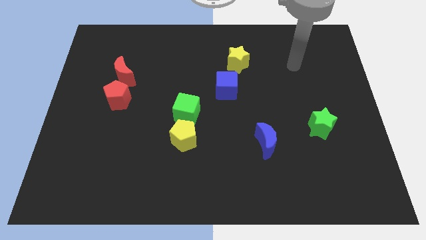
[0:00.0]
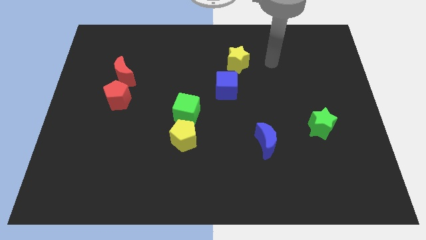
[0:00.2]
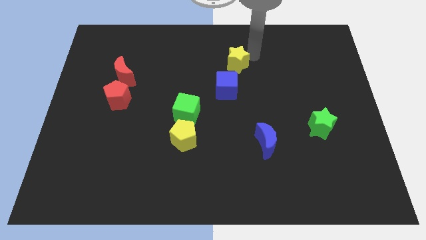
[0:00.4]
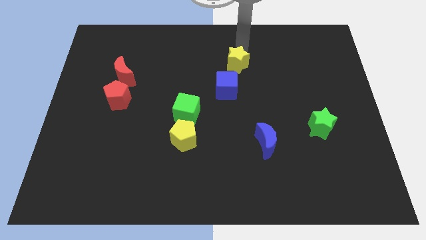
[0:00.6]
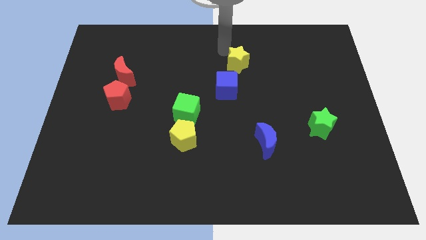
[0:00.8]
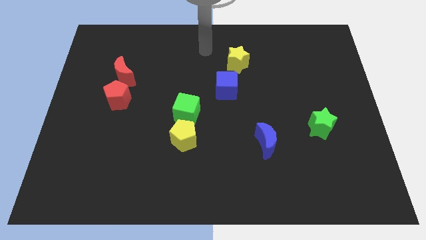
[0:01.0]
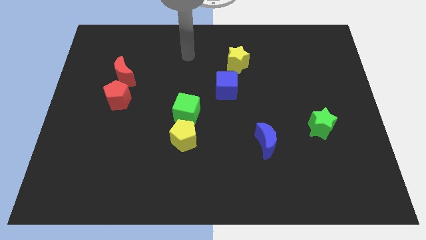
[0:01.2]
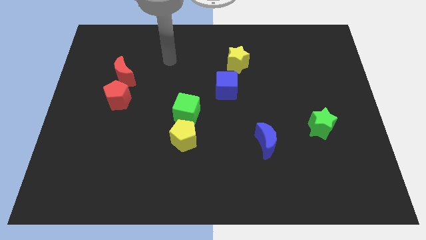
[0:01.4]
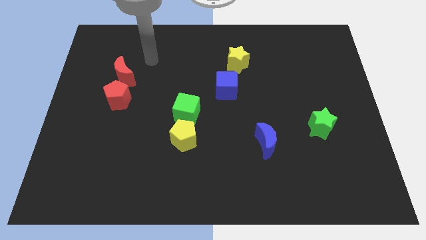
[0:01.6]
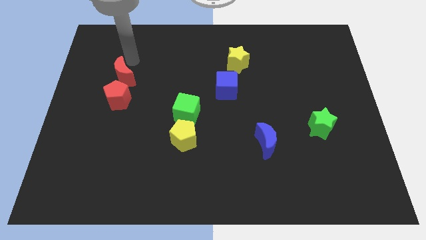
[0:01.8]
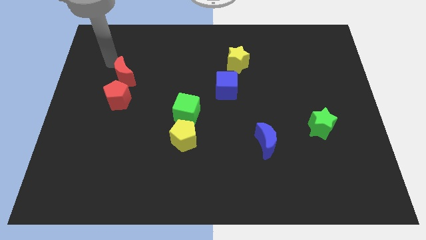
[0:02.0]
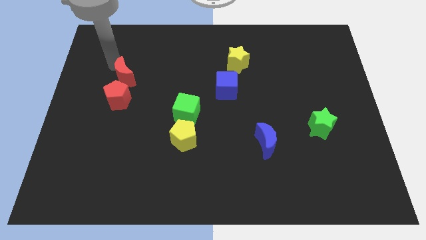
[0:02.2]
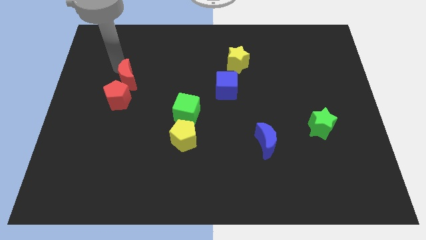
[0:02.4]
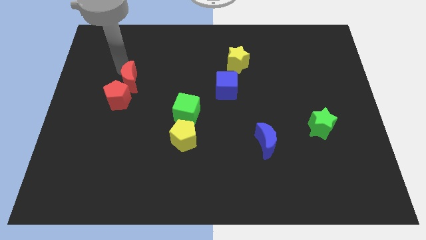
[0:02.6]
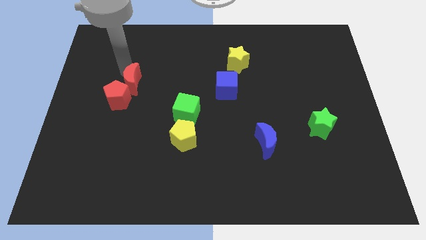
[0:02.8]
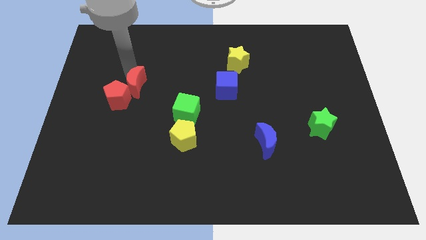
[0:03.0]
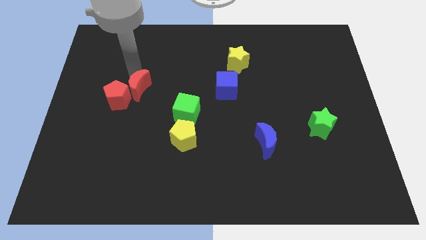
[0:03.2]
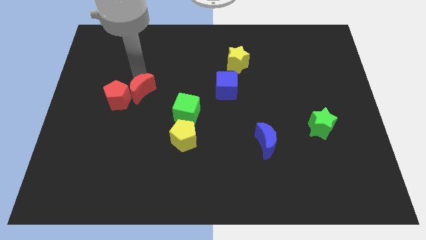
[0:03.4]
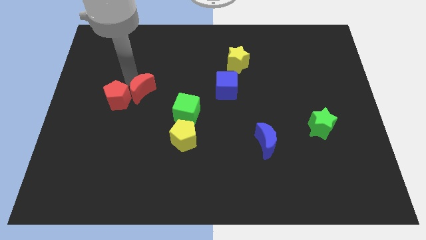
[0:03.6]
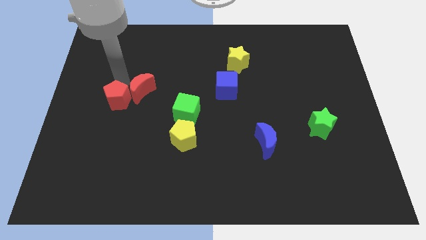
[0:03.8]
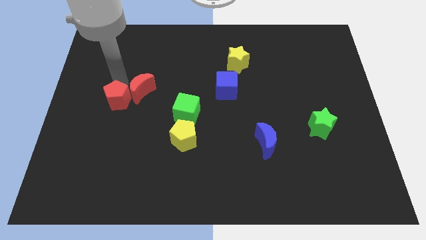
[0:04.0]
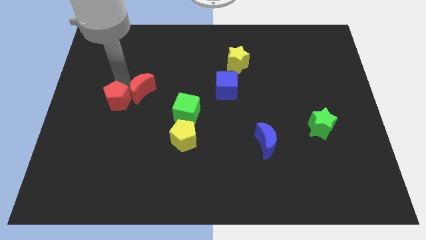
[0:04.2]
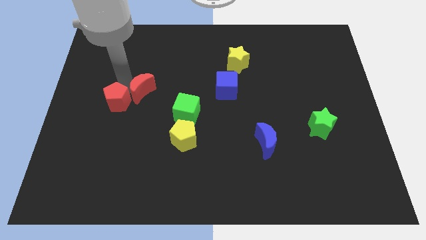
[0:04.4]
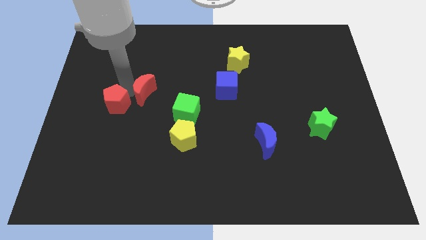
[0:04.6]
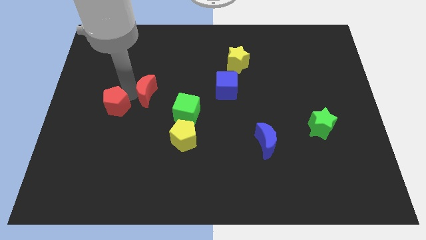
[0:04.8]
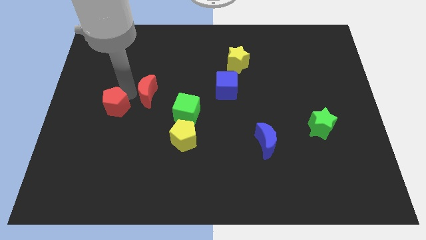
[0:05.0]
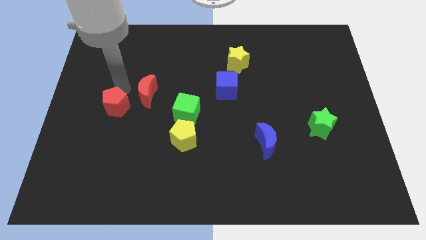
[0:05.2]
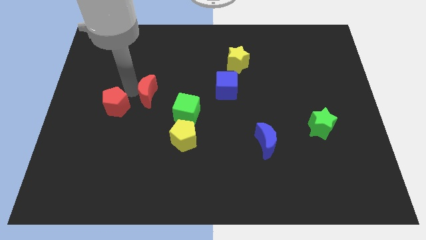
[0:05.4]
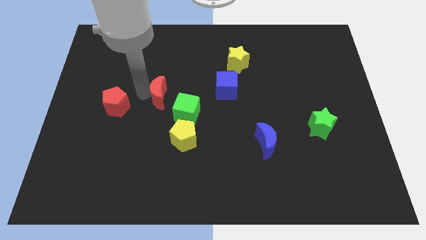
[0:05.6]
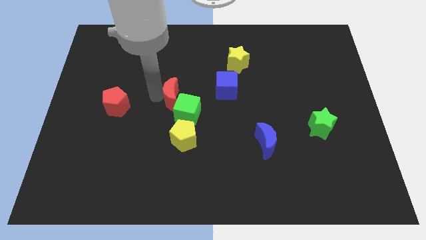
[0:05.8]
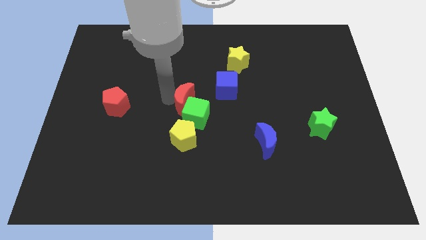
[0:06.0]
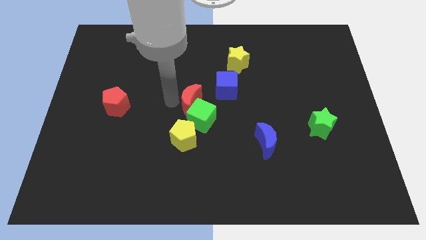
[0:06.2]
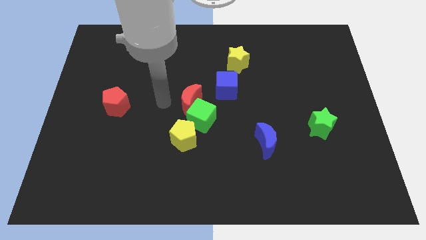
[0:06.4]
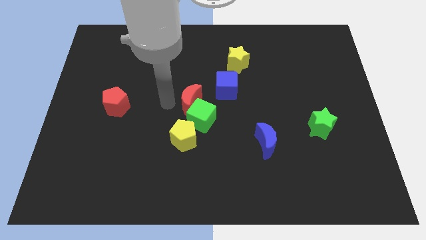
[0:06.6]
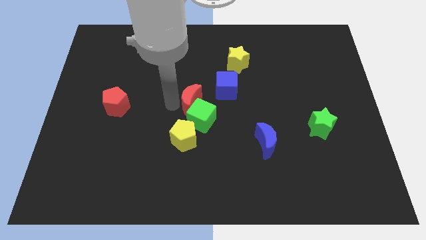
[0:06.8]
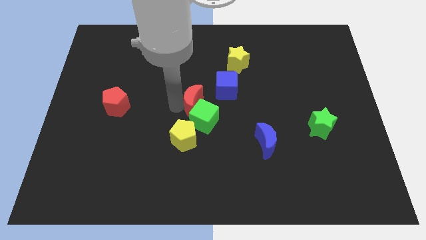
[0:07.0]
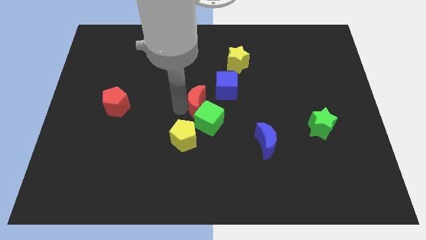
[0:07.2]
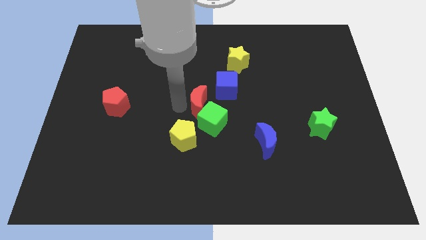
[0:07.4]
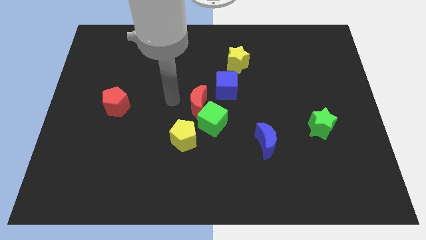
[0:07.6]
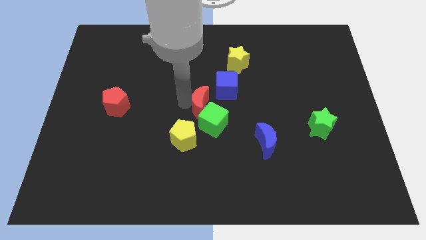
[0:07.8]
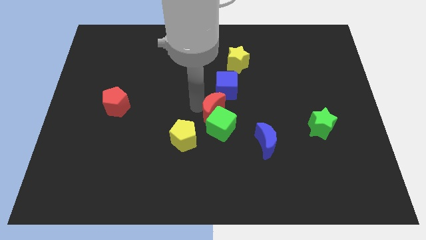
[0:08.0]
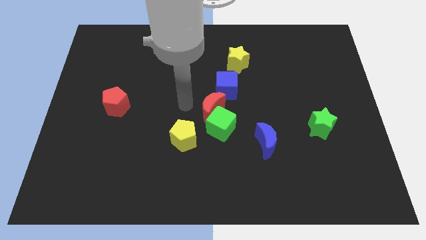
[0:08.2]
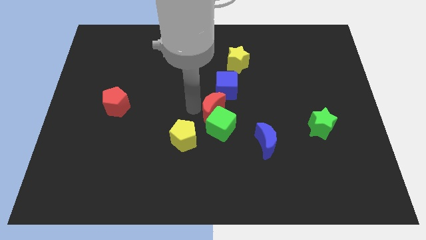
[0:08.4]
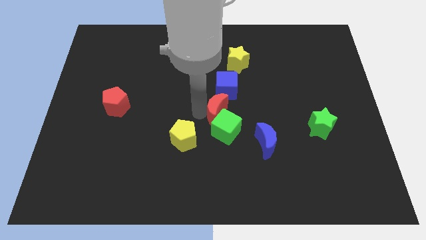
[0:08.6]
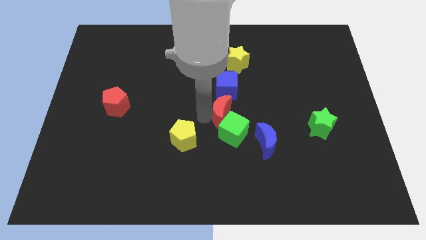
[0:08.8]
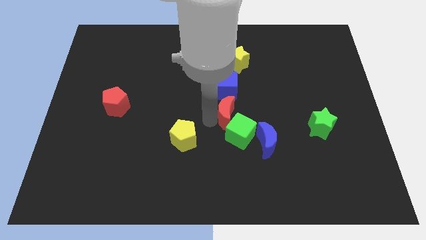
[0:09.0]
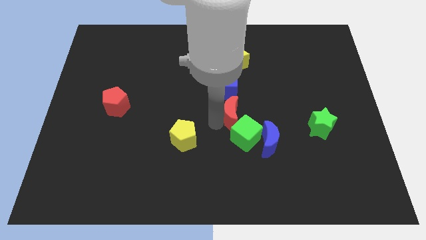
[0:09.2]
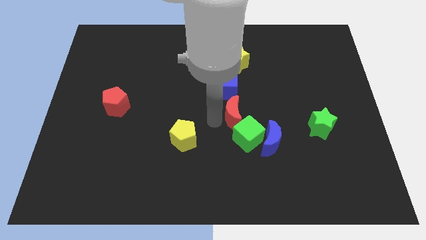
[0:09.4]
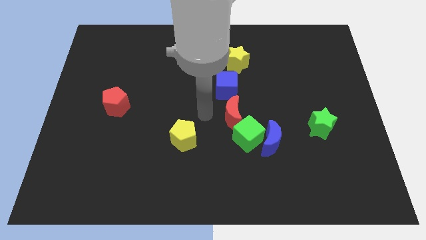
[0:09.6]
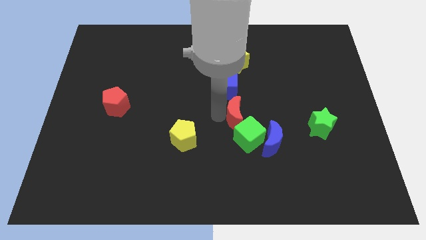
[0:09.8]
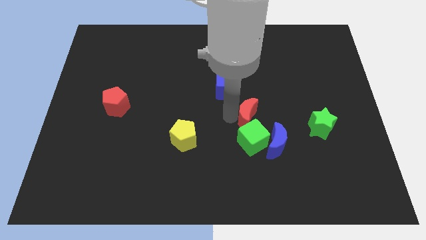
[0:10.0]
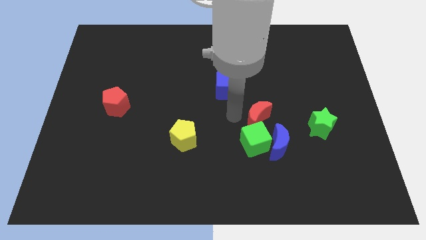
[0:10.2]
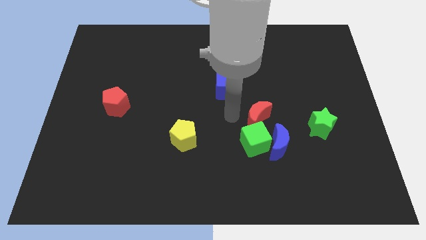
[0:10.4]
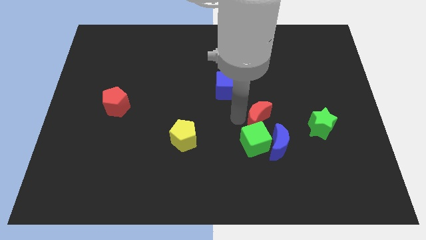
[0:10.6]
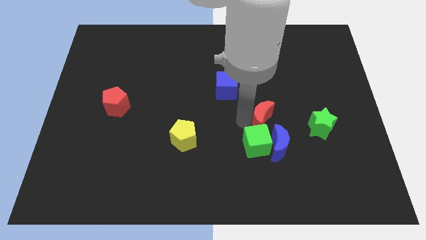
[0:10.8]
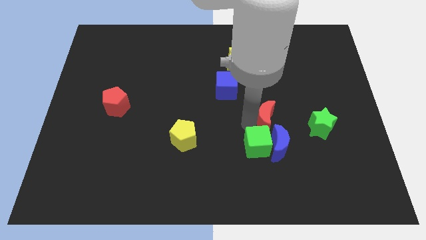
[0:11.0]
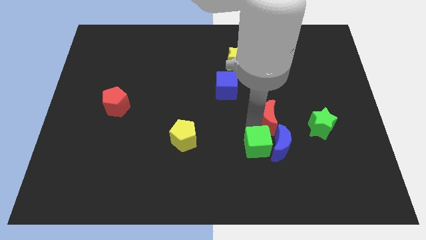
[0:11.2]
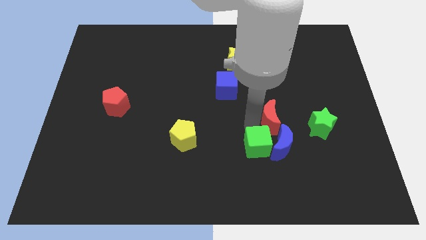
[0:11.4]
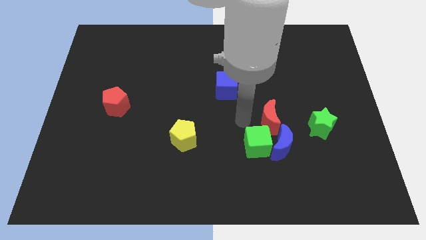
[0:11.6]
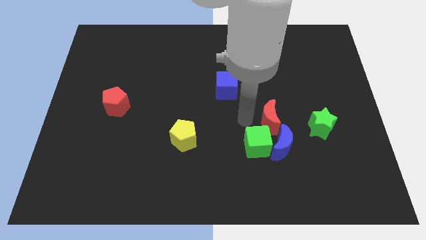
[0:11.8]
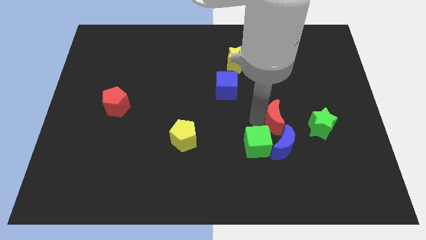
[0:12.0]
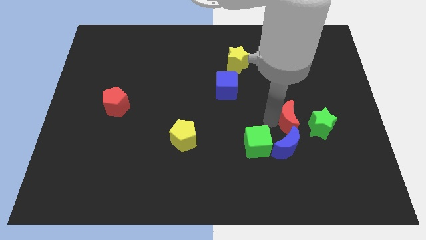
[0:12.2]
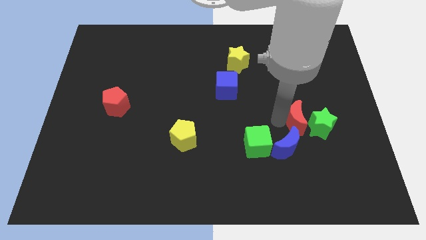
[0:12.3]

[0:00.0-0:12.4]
slide the red moon to the green star

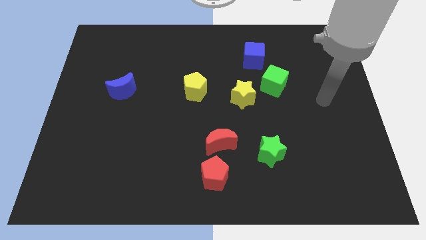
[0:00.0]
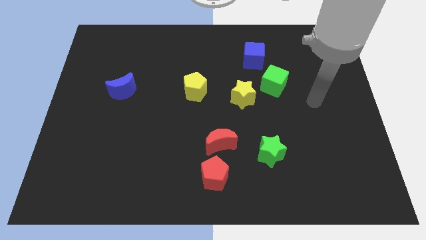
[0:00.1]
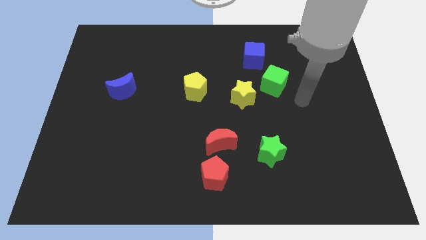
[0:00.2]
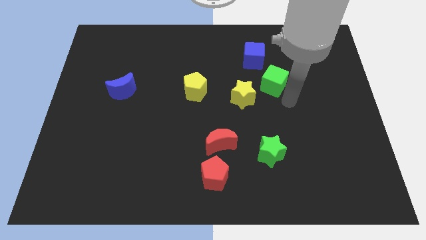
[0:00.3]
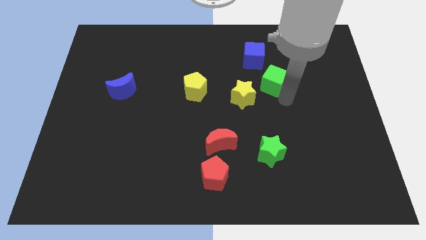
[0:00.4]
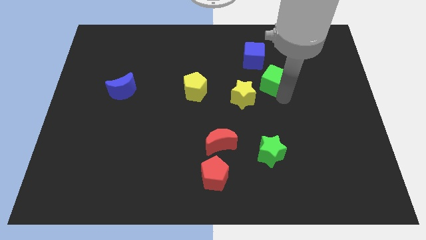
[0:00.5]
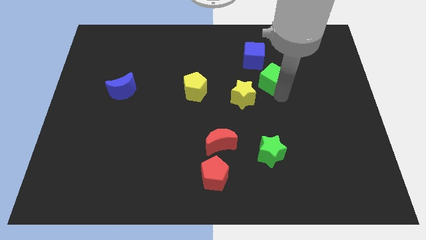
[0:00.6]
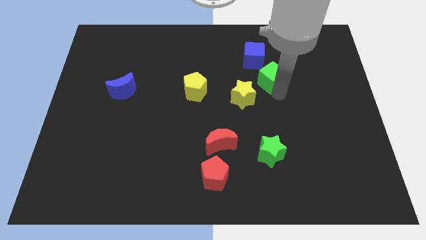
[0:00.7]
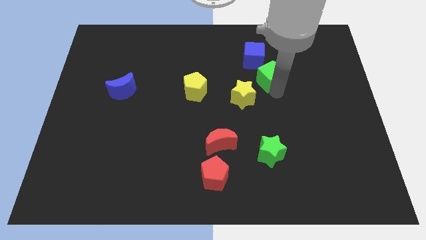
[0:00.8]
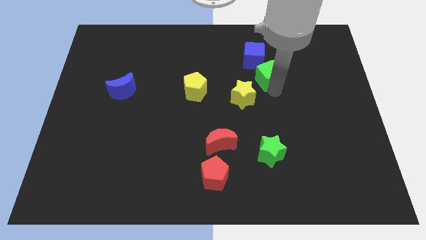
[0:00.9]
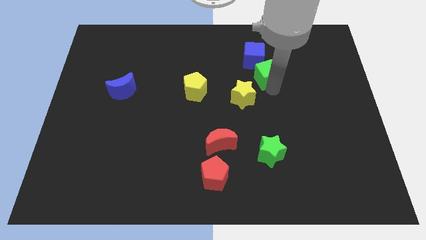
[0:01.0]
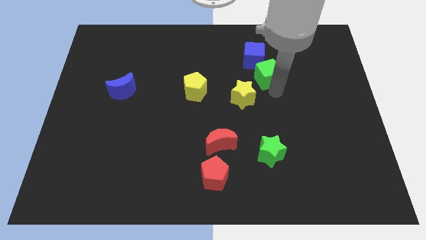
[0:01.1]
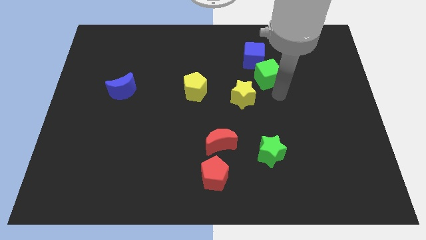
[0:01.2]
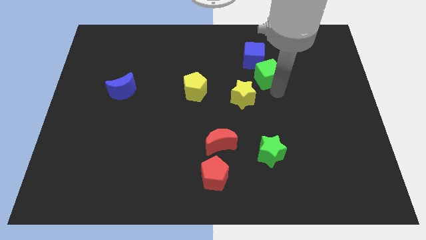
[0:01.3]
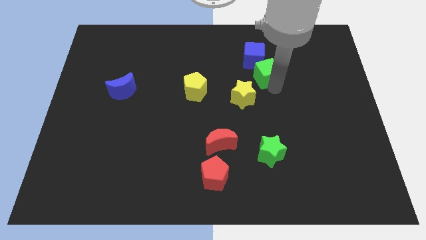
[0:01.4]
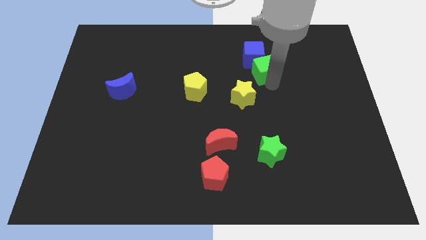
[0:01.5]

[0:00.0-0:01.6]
push the green cube towards the blue cube
